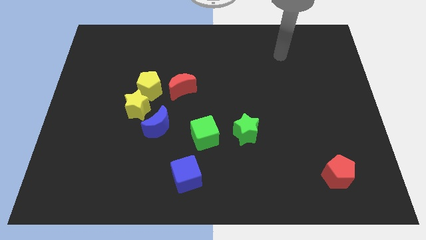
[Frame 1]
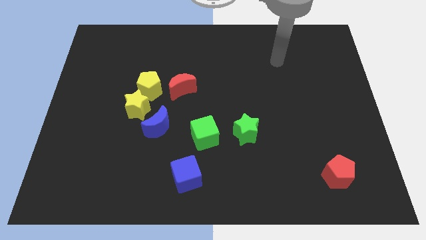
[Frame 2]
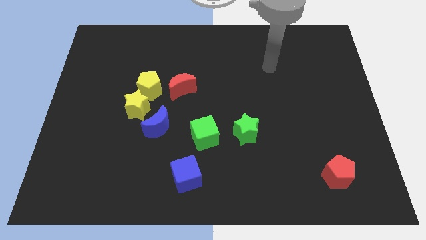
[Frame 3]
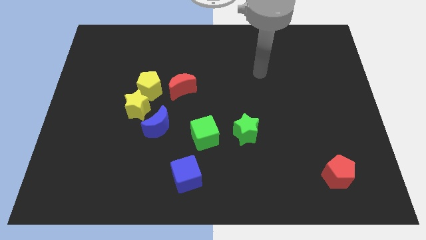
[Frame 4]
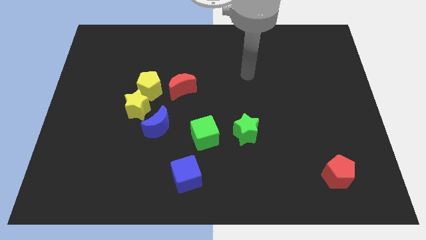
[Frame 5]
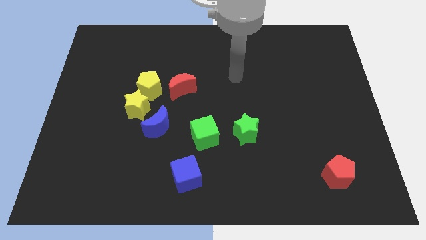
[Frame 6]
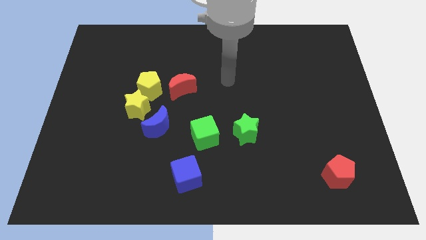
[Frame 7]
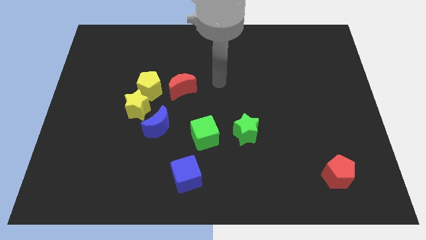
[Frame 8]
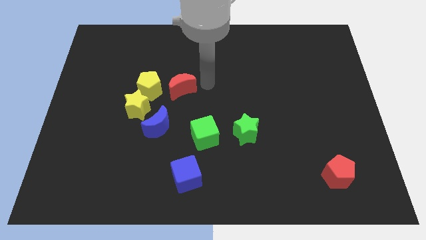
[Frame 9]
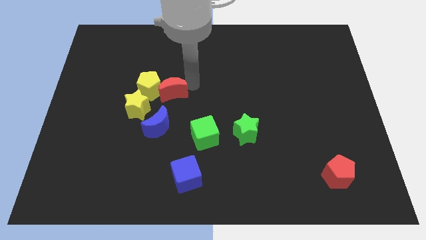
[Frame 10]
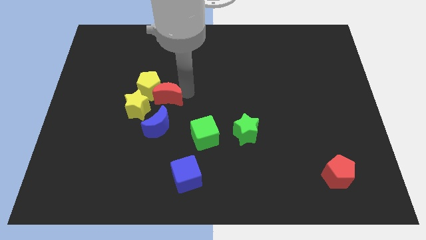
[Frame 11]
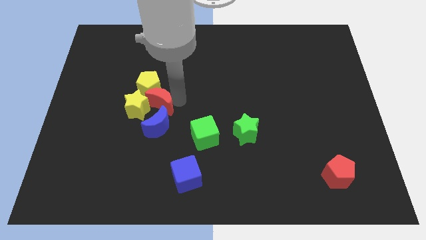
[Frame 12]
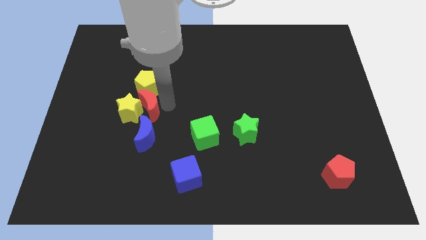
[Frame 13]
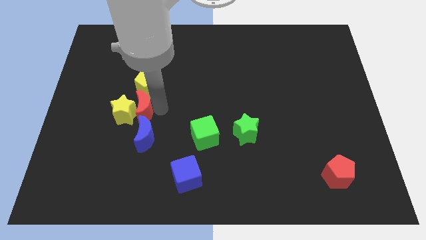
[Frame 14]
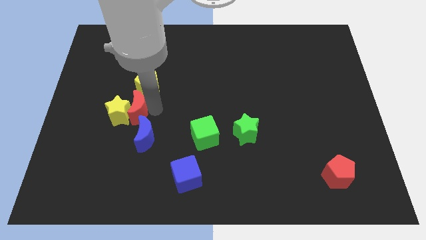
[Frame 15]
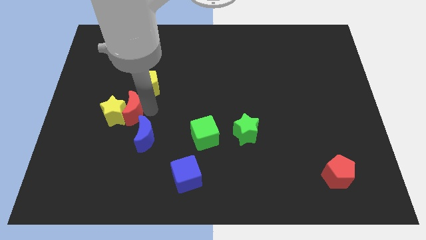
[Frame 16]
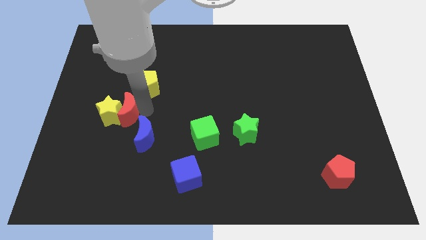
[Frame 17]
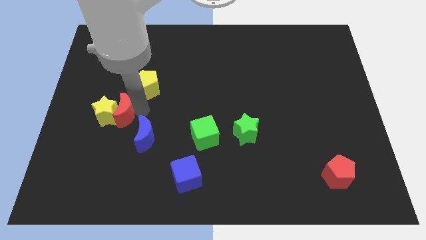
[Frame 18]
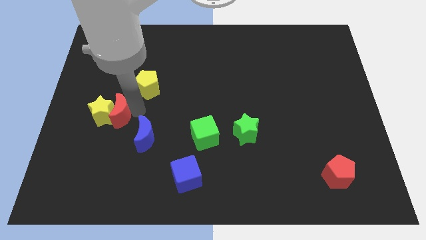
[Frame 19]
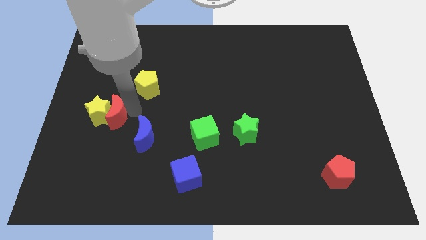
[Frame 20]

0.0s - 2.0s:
pull the yellow star apart from the yellow pentagon and blue moon

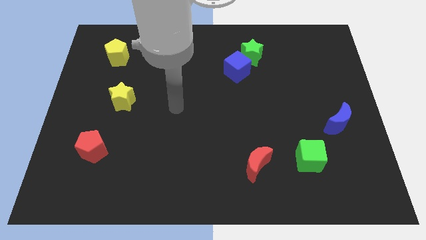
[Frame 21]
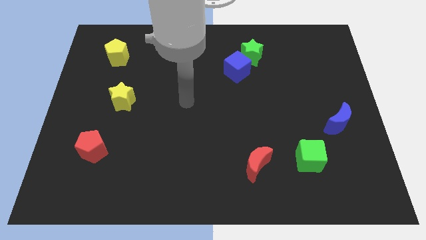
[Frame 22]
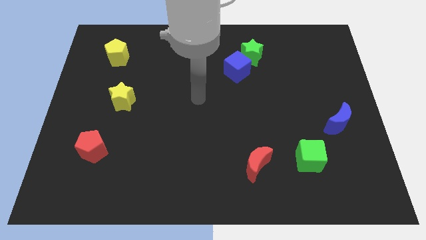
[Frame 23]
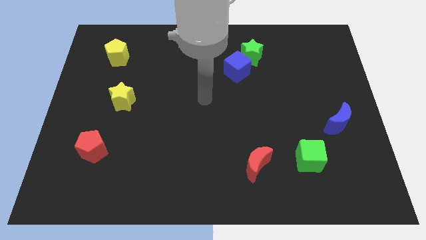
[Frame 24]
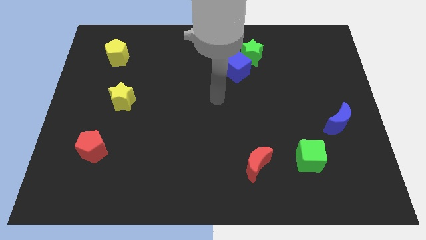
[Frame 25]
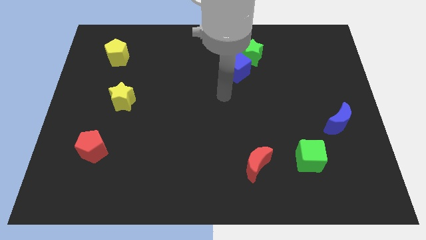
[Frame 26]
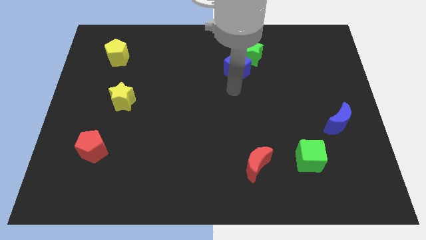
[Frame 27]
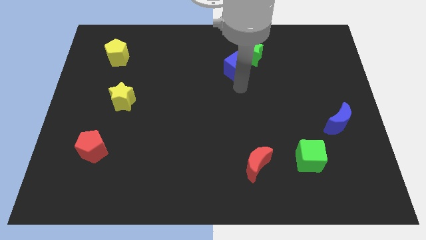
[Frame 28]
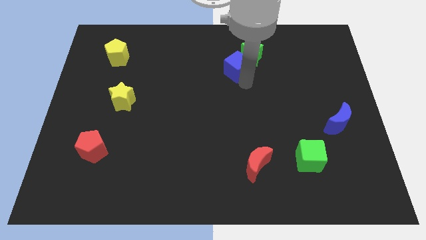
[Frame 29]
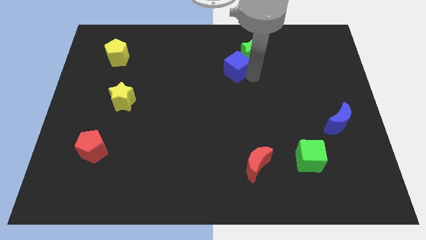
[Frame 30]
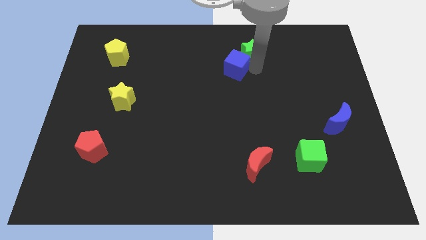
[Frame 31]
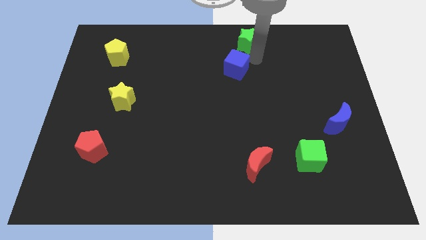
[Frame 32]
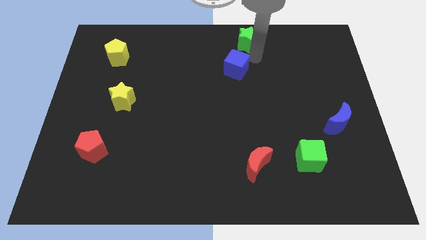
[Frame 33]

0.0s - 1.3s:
move the blue cube away from the green star

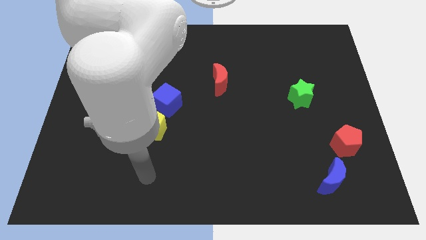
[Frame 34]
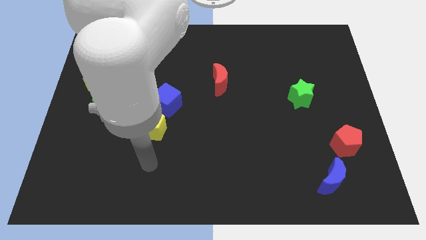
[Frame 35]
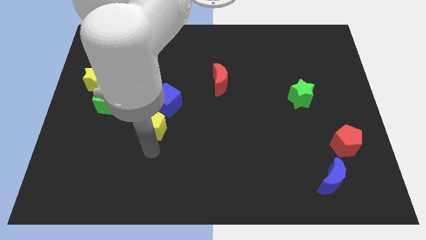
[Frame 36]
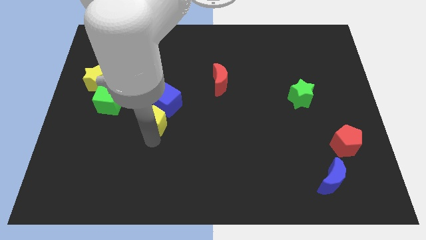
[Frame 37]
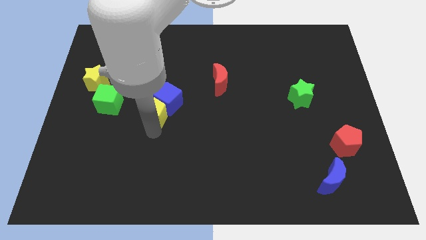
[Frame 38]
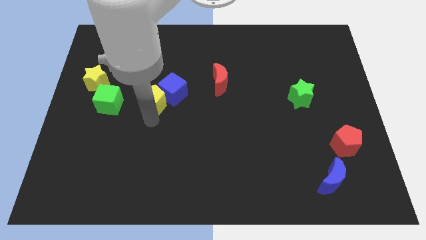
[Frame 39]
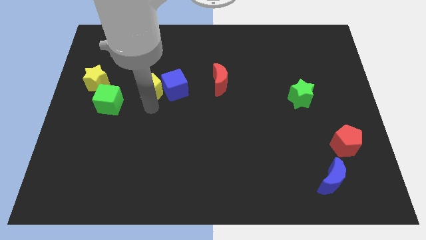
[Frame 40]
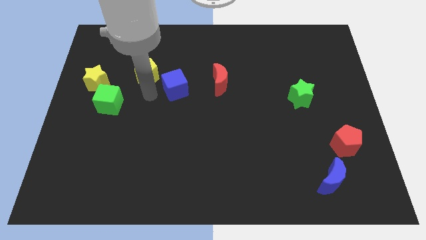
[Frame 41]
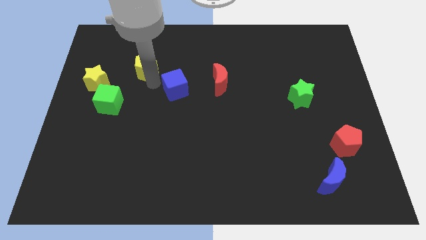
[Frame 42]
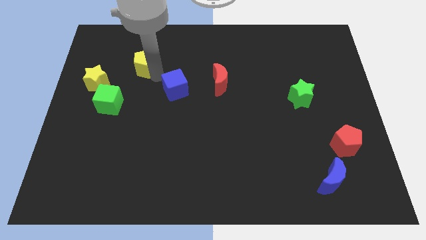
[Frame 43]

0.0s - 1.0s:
pull the blue cube apart from the yellow pentagon

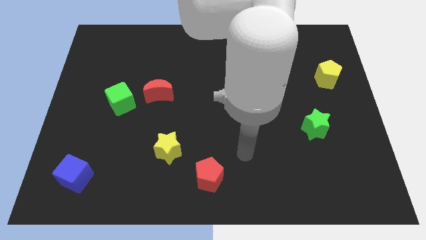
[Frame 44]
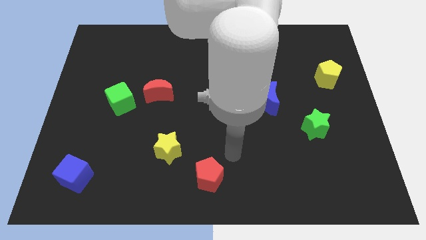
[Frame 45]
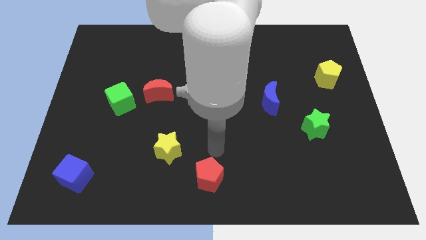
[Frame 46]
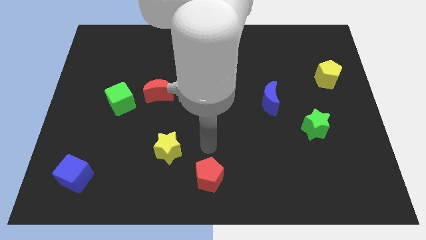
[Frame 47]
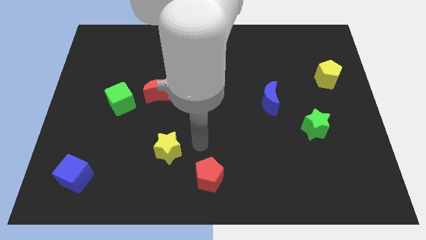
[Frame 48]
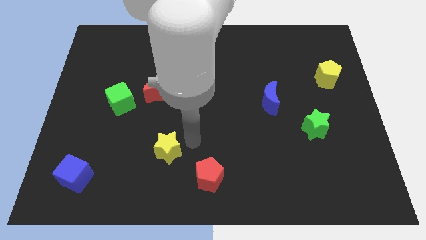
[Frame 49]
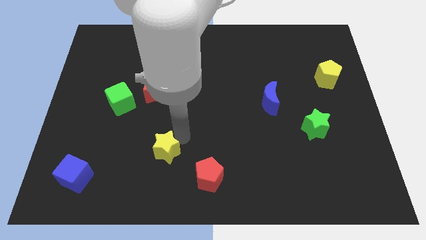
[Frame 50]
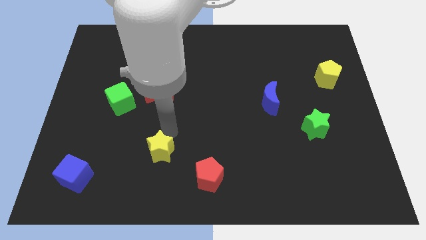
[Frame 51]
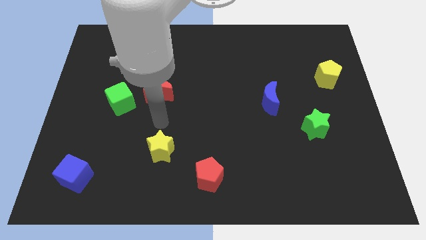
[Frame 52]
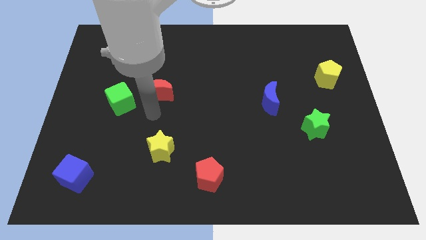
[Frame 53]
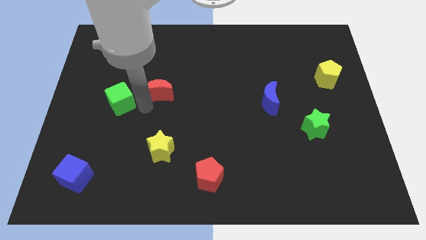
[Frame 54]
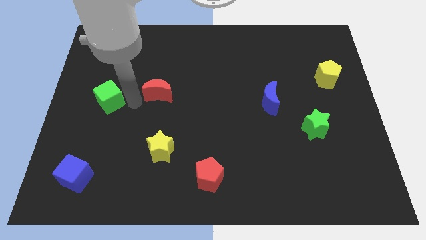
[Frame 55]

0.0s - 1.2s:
pull the red moon apart from the green cube

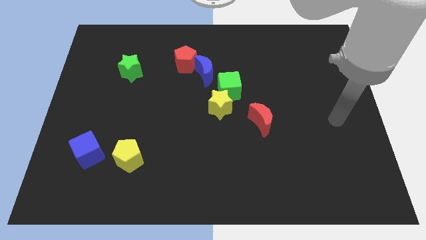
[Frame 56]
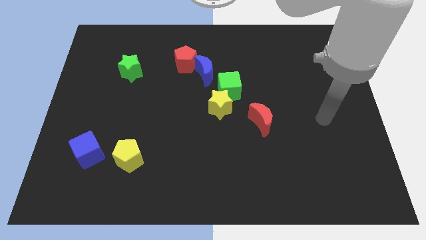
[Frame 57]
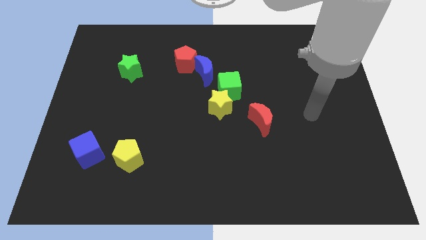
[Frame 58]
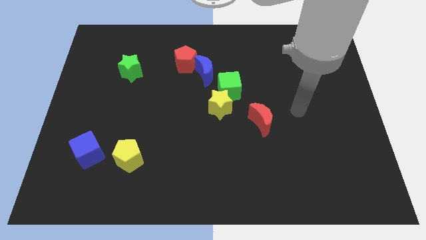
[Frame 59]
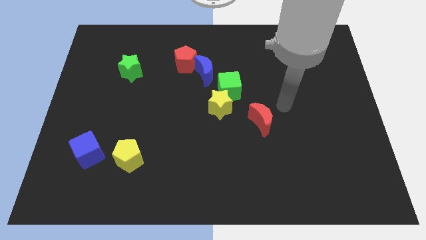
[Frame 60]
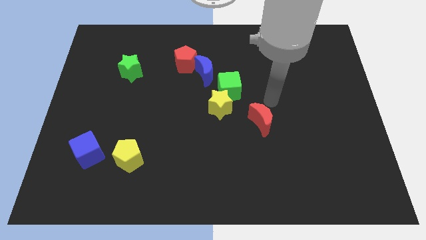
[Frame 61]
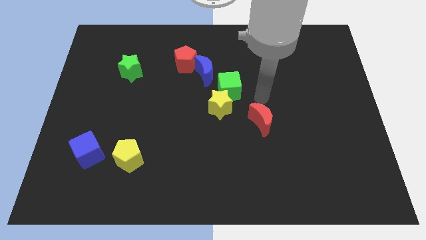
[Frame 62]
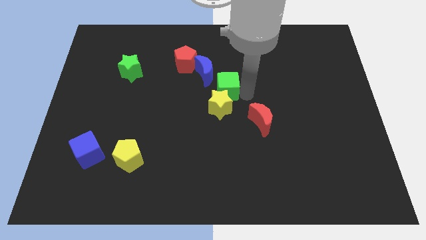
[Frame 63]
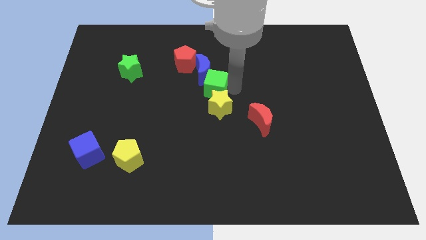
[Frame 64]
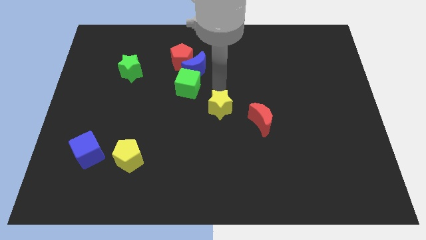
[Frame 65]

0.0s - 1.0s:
move the yellow star away from the green cube

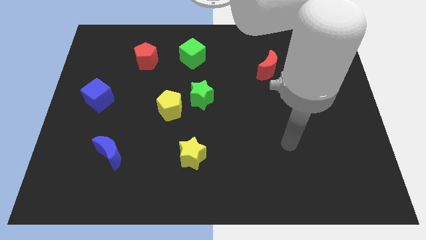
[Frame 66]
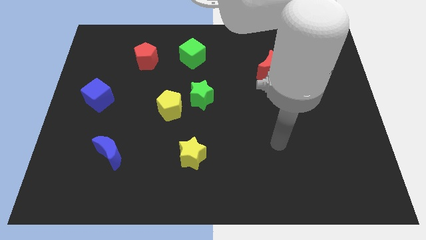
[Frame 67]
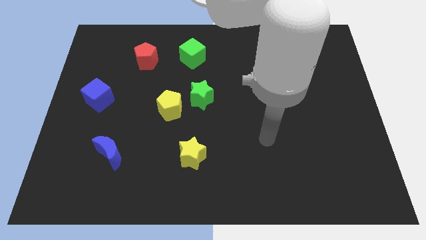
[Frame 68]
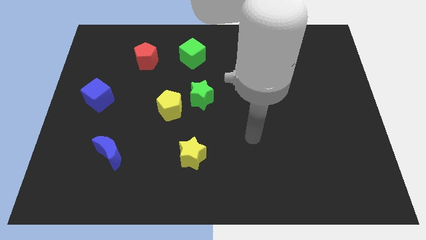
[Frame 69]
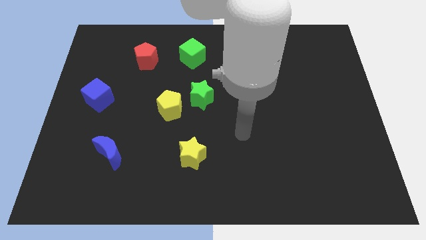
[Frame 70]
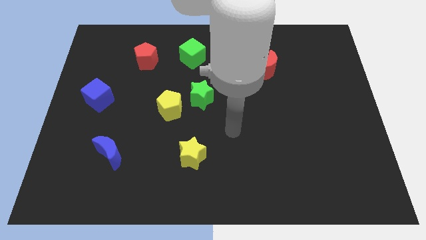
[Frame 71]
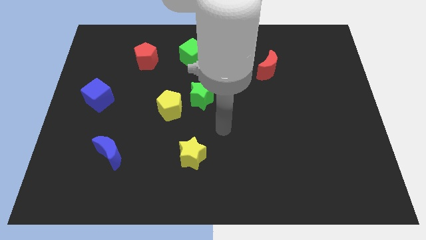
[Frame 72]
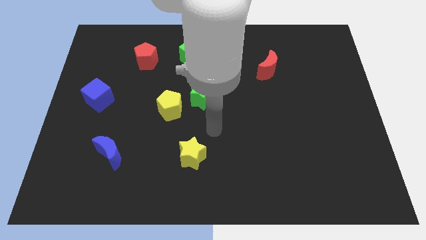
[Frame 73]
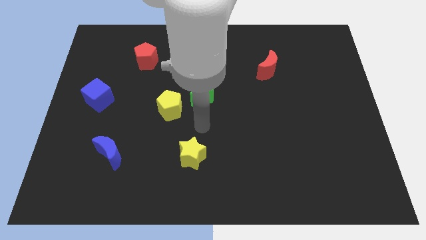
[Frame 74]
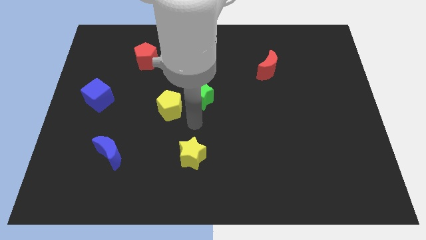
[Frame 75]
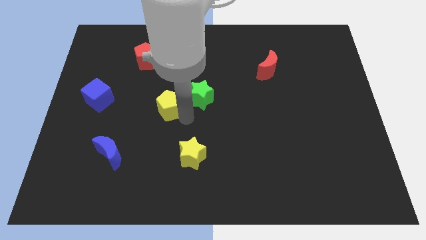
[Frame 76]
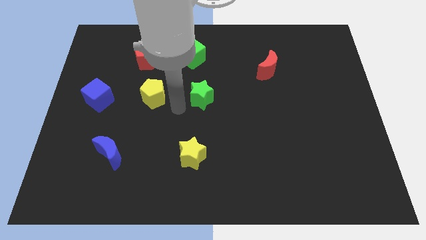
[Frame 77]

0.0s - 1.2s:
move the green star away from the yellow pentagon

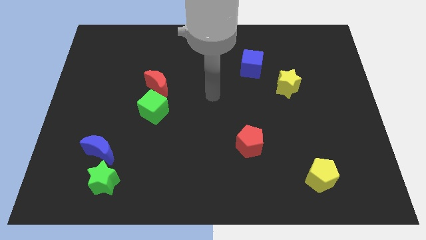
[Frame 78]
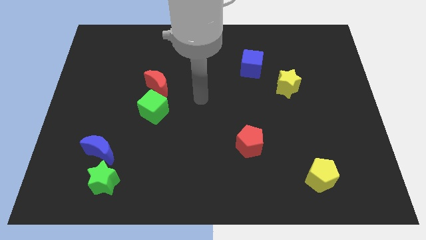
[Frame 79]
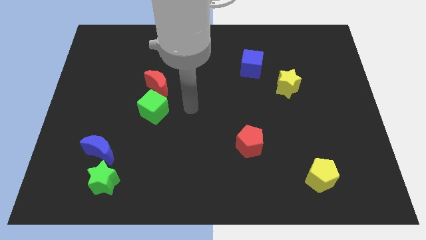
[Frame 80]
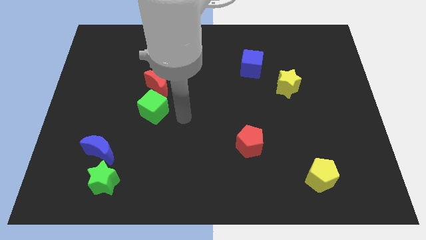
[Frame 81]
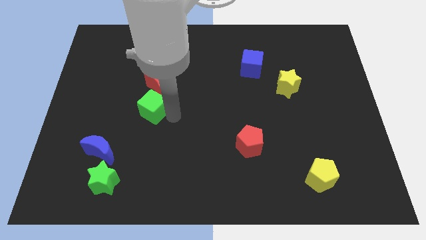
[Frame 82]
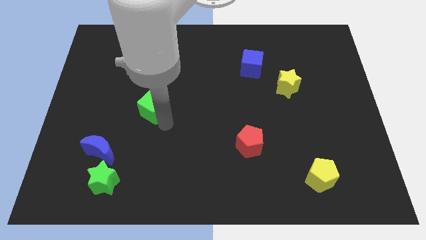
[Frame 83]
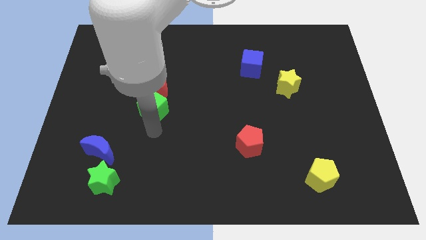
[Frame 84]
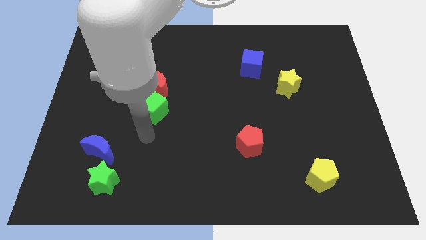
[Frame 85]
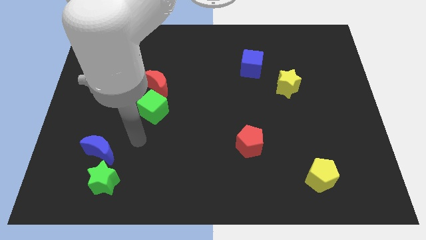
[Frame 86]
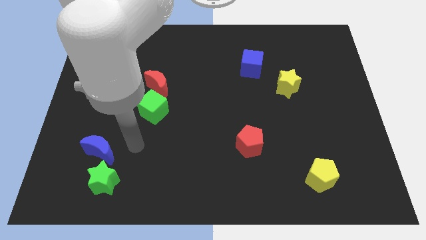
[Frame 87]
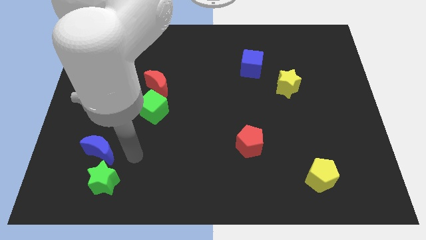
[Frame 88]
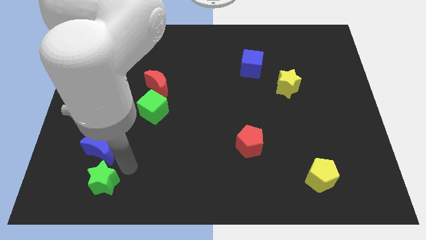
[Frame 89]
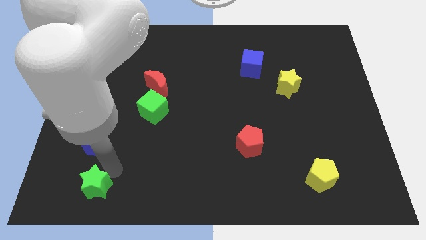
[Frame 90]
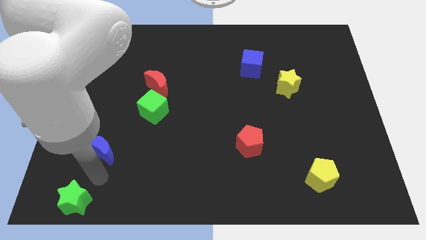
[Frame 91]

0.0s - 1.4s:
separate the blue moon from the green star

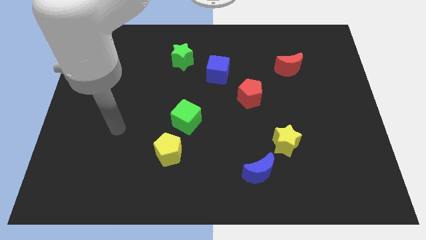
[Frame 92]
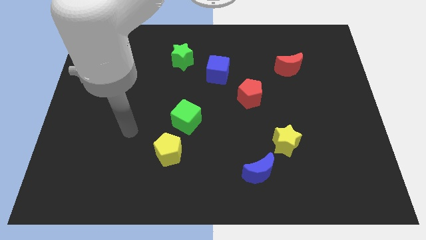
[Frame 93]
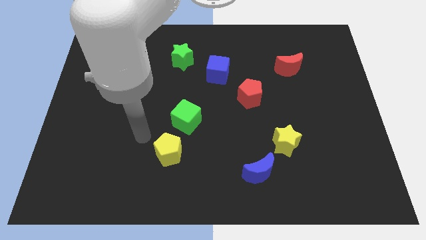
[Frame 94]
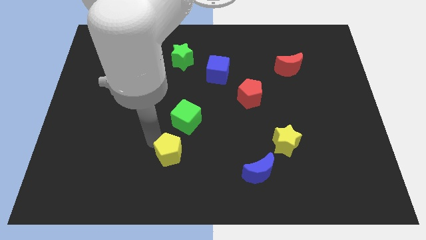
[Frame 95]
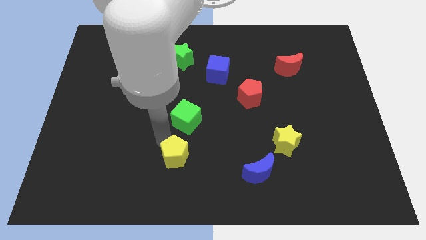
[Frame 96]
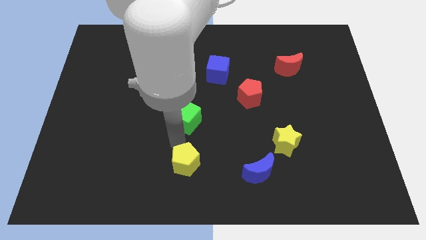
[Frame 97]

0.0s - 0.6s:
move the green cube away from the yellow pentagon
